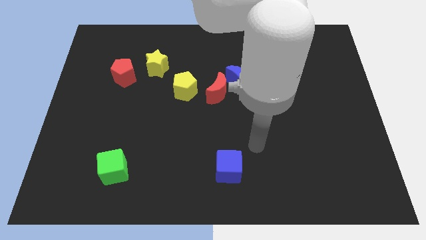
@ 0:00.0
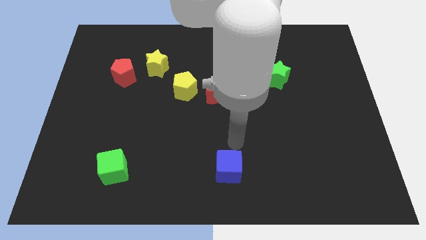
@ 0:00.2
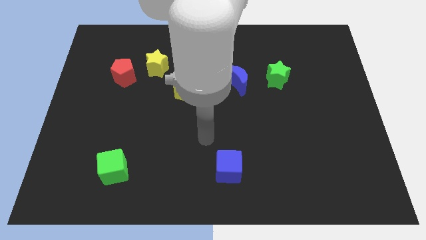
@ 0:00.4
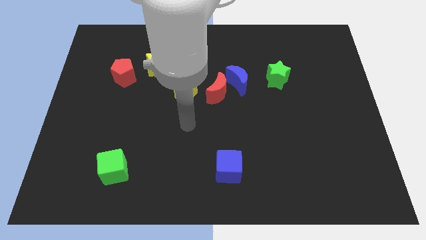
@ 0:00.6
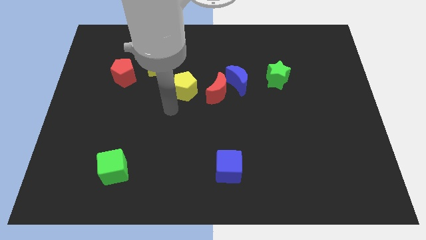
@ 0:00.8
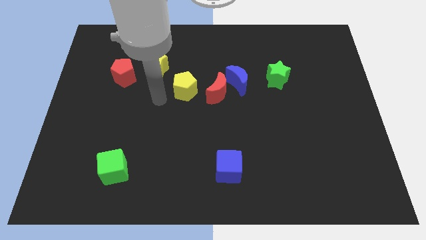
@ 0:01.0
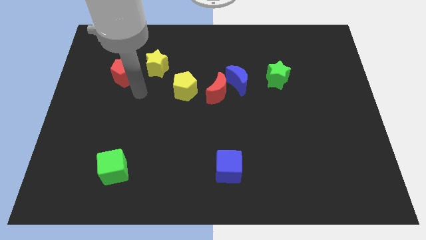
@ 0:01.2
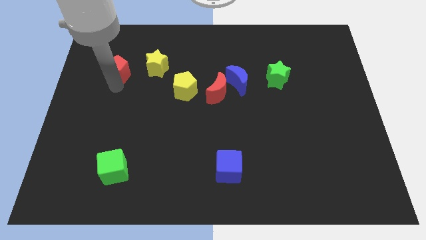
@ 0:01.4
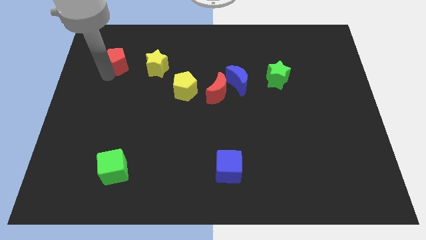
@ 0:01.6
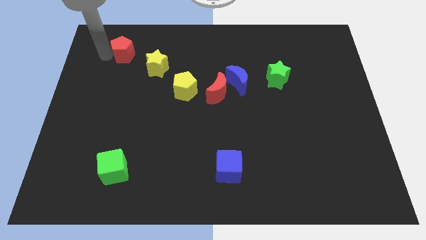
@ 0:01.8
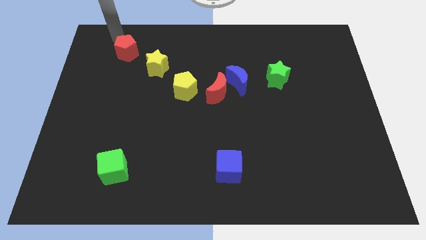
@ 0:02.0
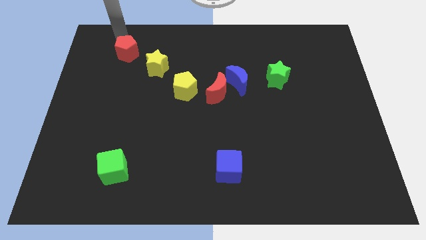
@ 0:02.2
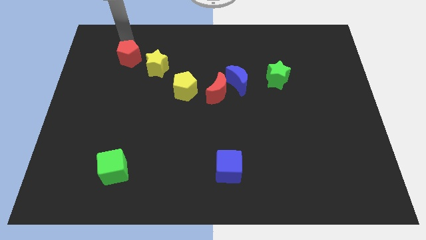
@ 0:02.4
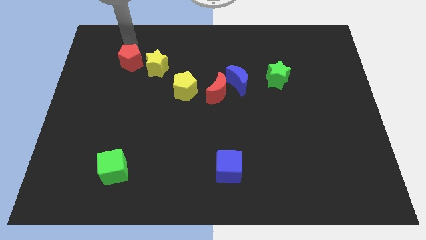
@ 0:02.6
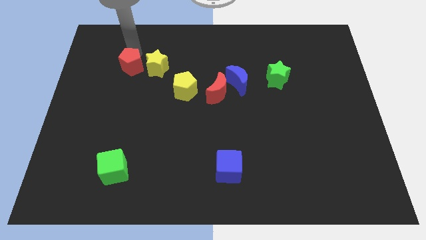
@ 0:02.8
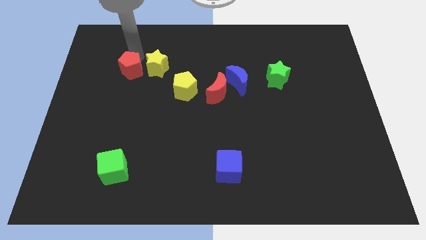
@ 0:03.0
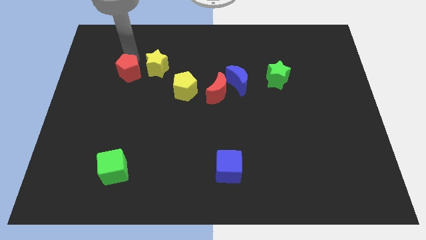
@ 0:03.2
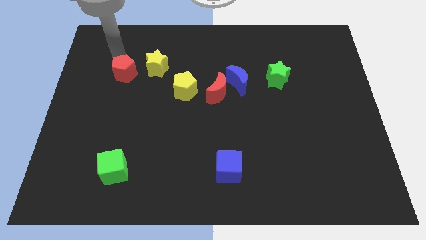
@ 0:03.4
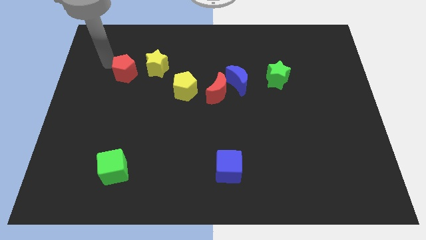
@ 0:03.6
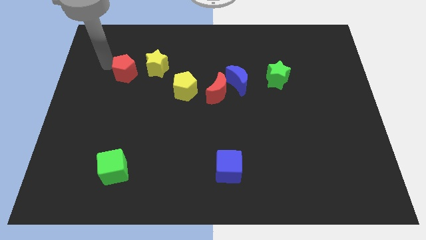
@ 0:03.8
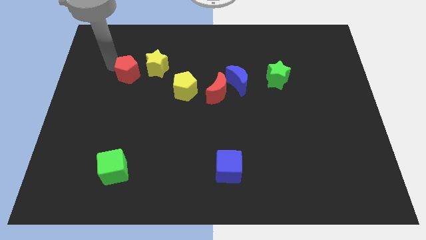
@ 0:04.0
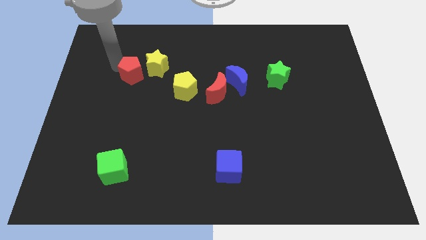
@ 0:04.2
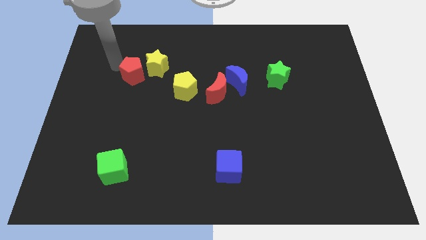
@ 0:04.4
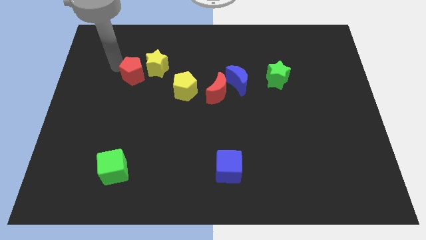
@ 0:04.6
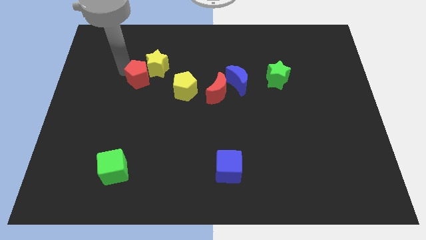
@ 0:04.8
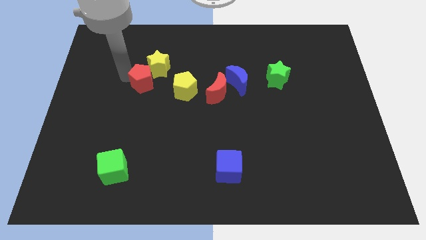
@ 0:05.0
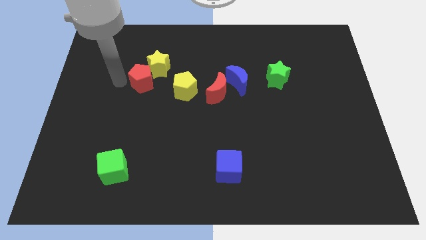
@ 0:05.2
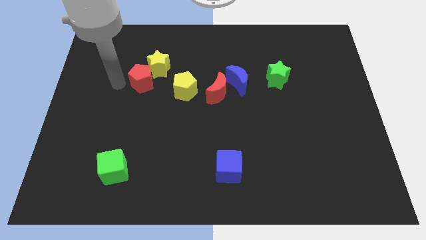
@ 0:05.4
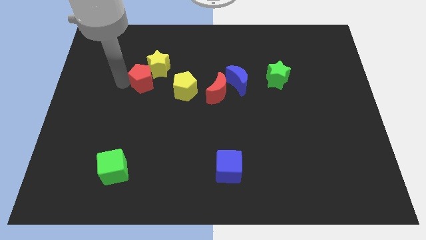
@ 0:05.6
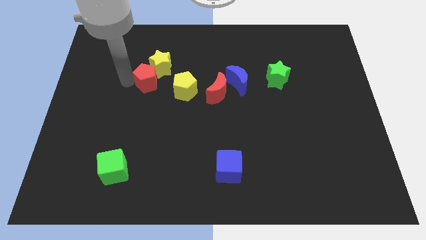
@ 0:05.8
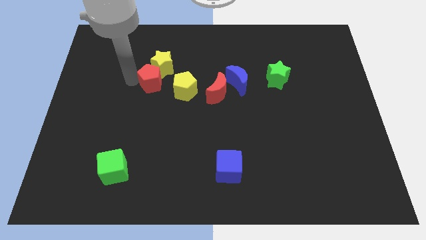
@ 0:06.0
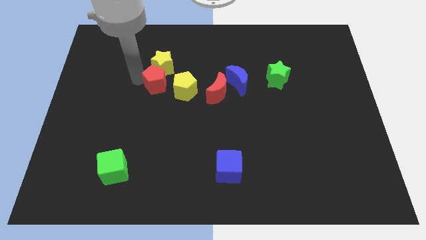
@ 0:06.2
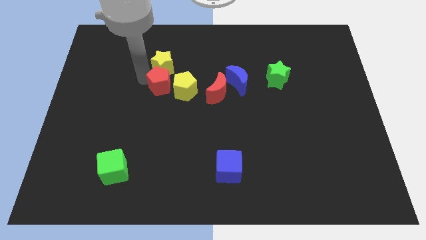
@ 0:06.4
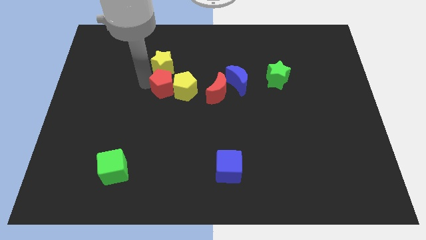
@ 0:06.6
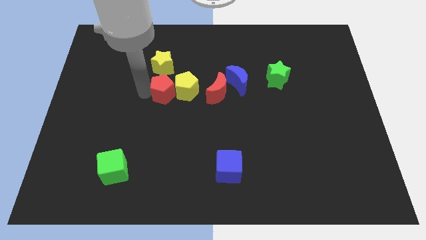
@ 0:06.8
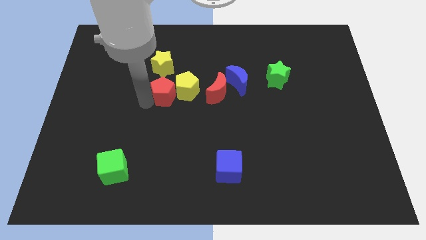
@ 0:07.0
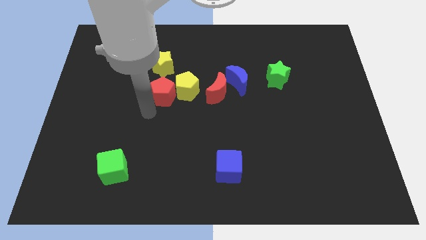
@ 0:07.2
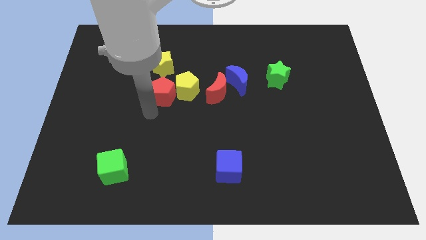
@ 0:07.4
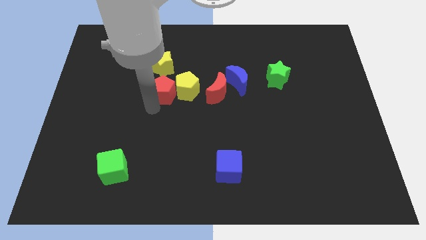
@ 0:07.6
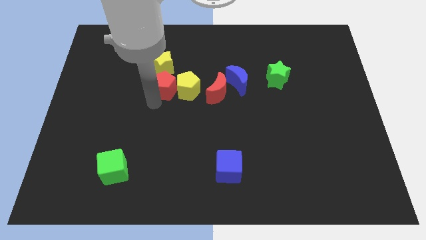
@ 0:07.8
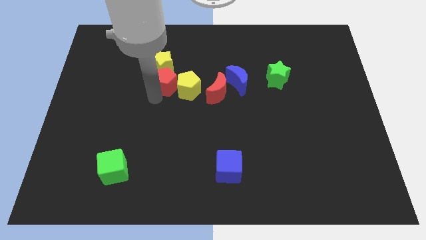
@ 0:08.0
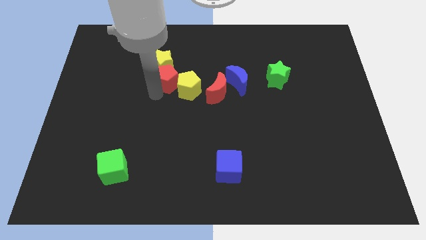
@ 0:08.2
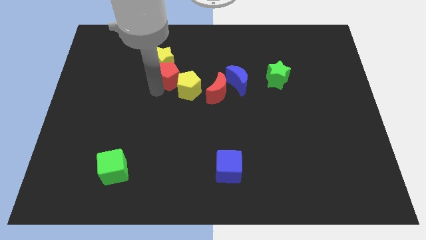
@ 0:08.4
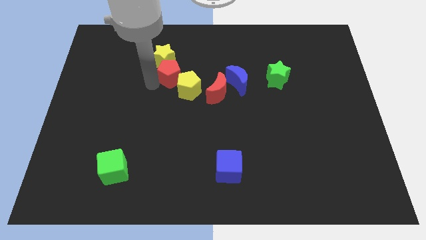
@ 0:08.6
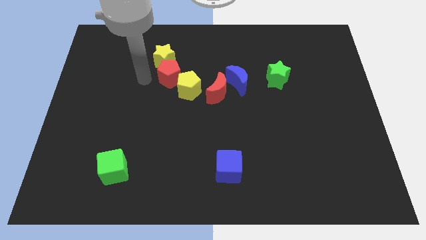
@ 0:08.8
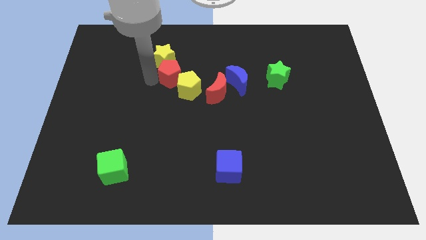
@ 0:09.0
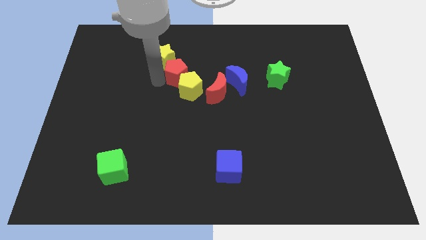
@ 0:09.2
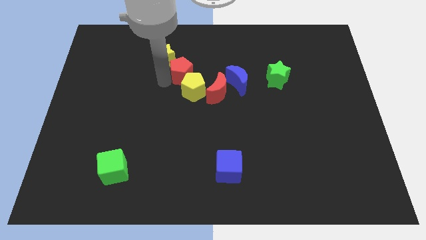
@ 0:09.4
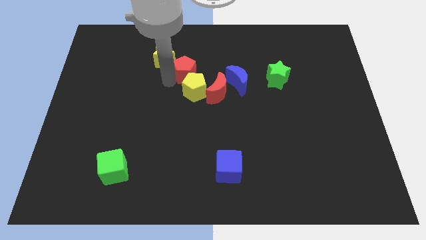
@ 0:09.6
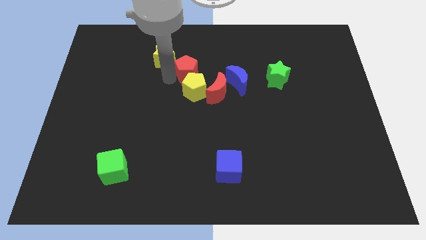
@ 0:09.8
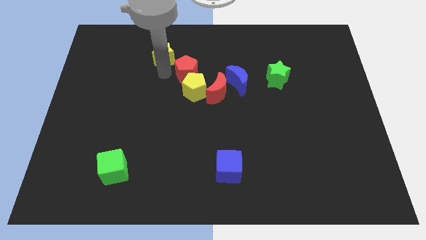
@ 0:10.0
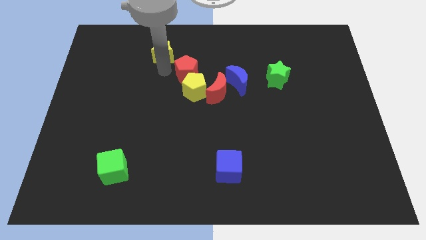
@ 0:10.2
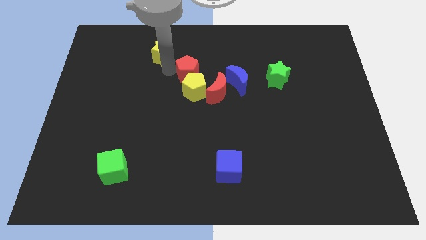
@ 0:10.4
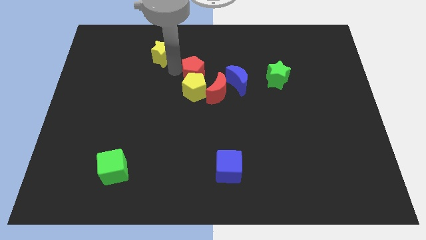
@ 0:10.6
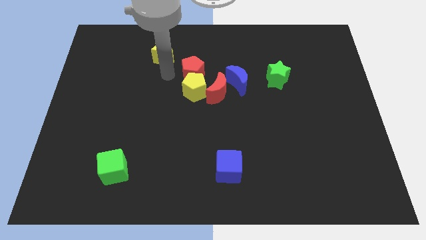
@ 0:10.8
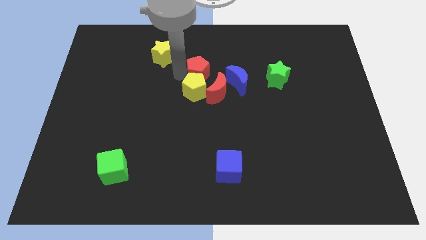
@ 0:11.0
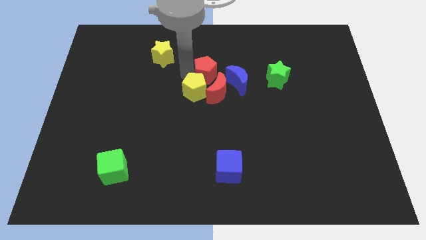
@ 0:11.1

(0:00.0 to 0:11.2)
push the red pentagon right

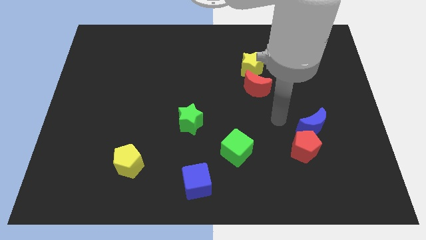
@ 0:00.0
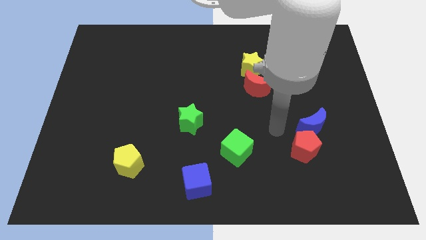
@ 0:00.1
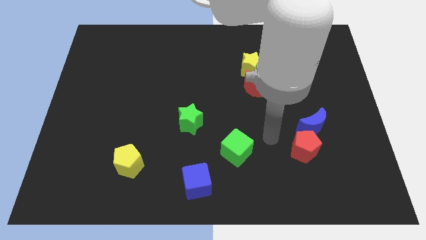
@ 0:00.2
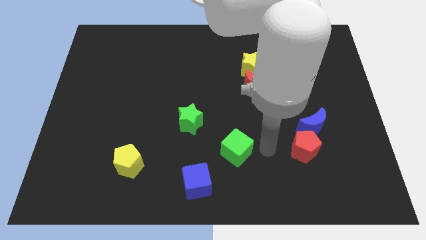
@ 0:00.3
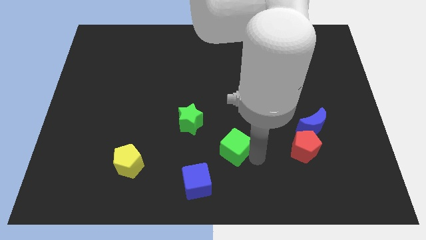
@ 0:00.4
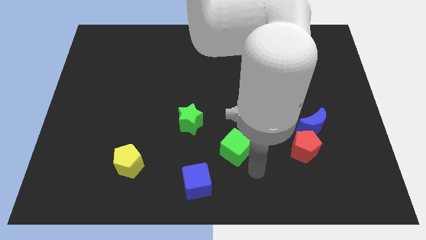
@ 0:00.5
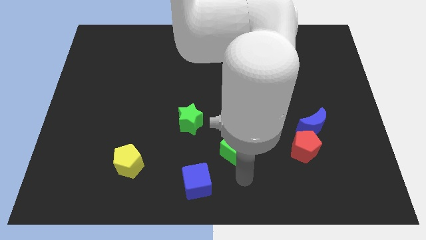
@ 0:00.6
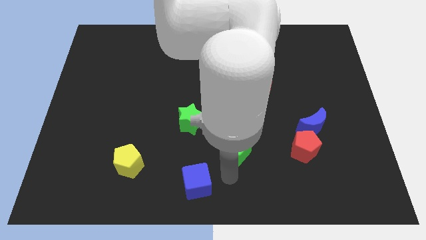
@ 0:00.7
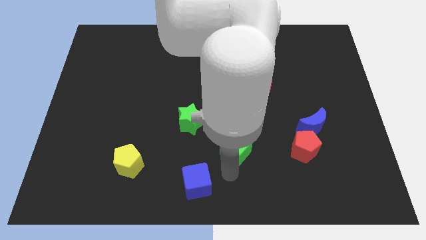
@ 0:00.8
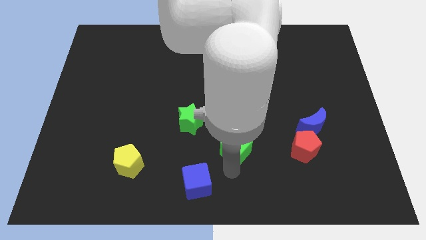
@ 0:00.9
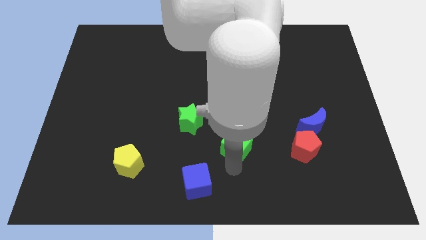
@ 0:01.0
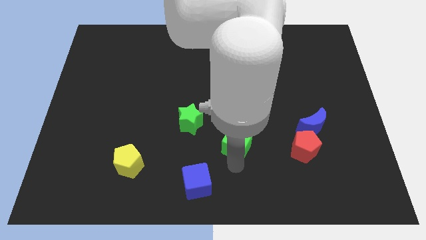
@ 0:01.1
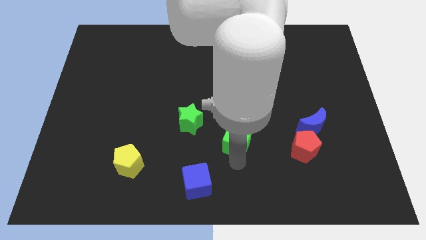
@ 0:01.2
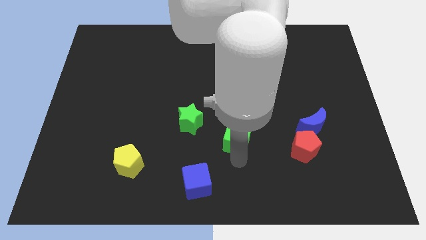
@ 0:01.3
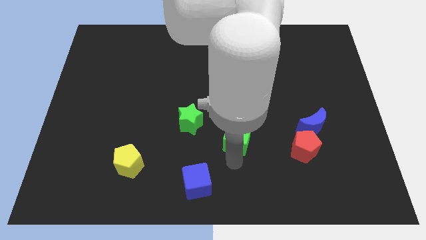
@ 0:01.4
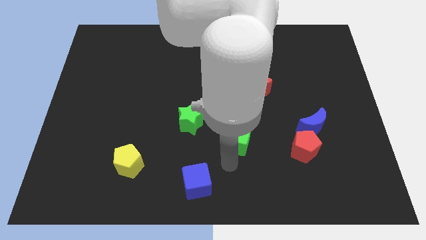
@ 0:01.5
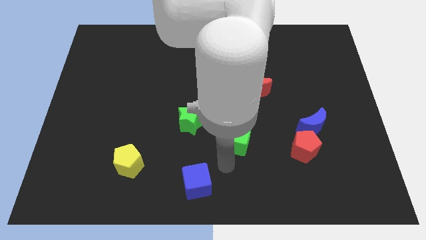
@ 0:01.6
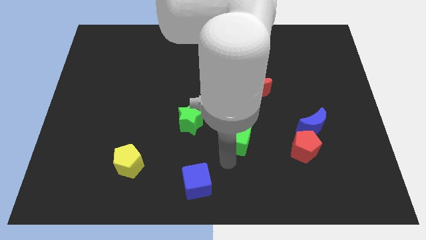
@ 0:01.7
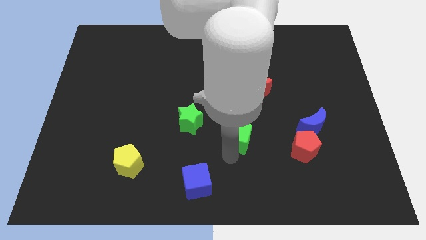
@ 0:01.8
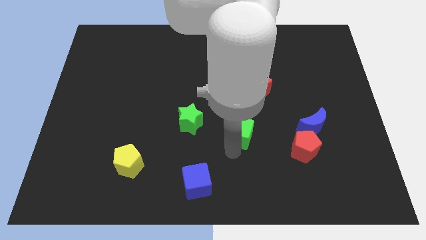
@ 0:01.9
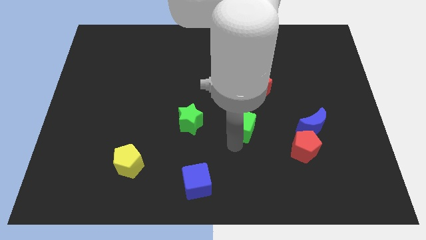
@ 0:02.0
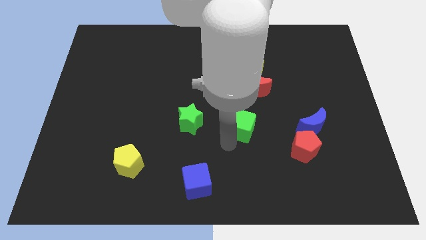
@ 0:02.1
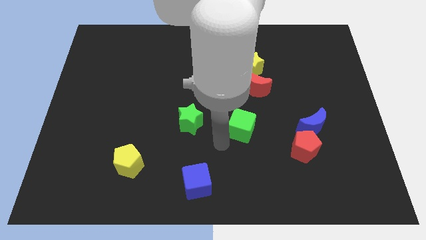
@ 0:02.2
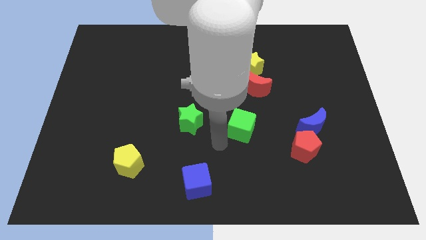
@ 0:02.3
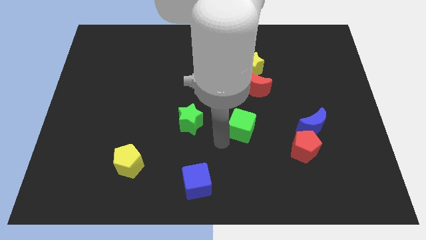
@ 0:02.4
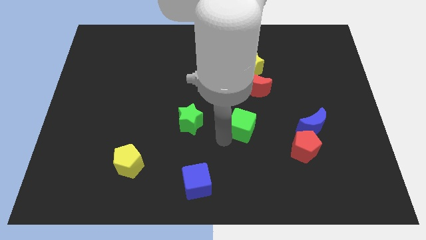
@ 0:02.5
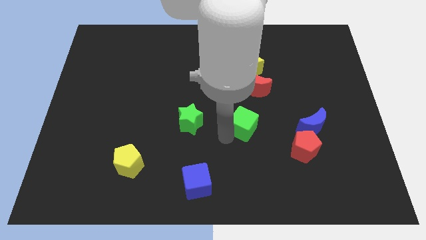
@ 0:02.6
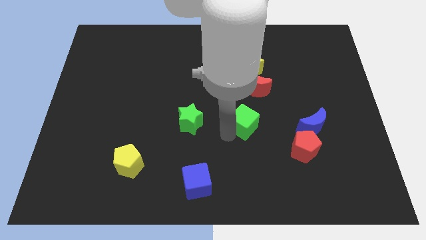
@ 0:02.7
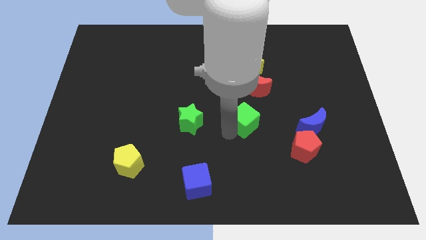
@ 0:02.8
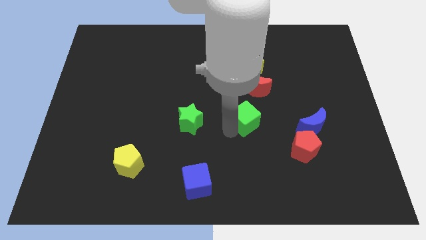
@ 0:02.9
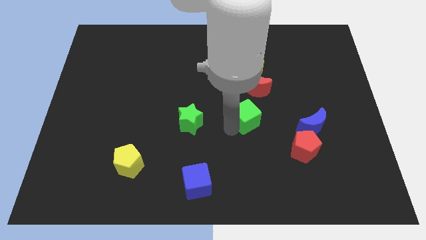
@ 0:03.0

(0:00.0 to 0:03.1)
slide the green cube up and right a little bit
